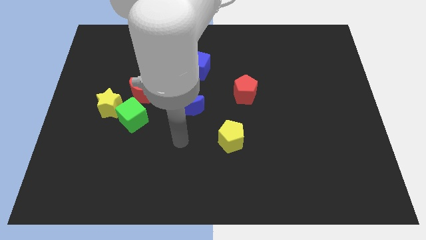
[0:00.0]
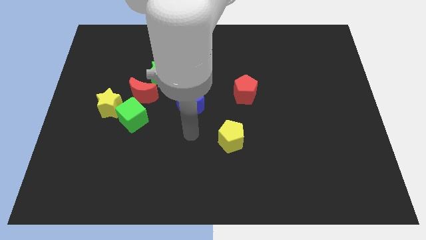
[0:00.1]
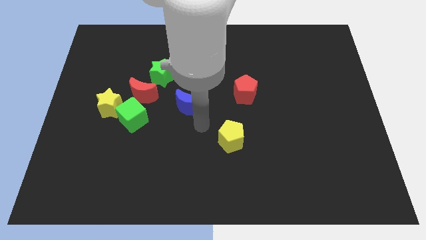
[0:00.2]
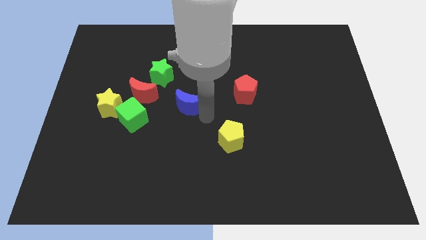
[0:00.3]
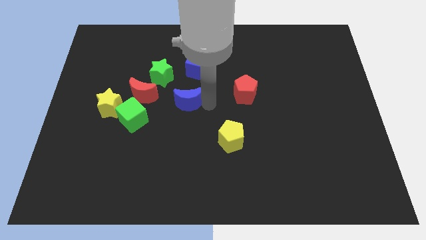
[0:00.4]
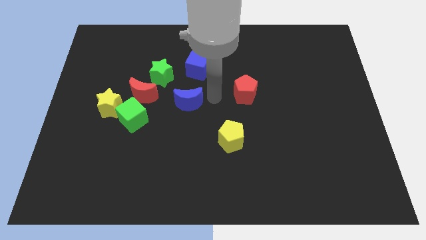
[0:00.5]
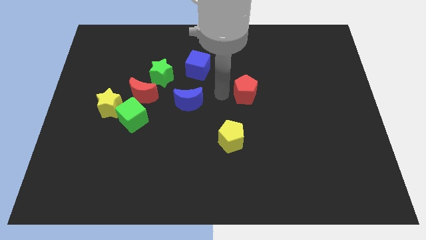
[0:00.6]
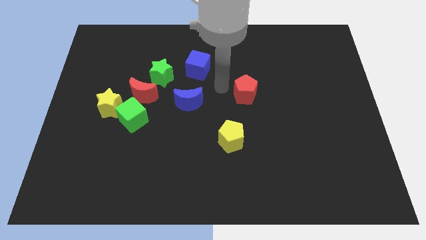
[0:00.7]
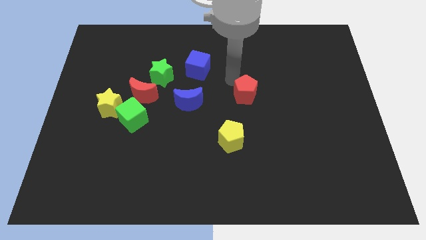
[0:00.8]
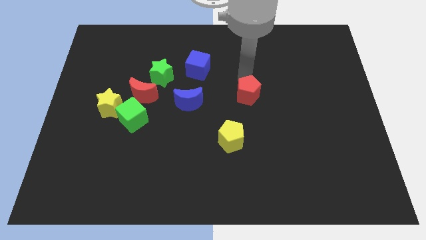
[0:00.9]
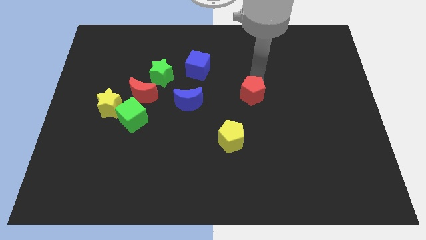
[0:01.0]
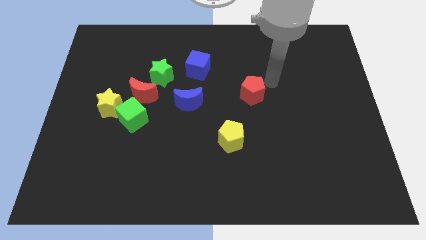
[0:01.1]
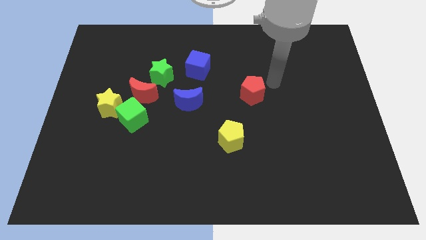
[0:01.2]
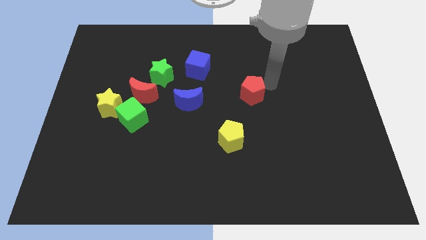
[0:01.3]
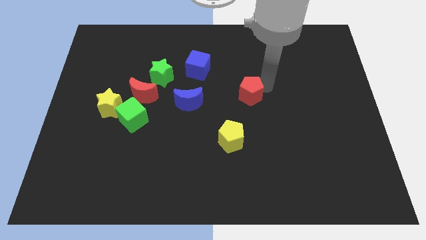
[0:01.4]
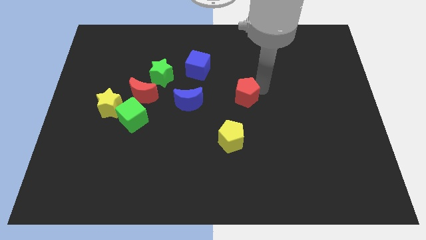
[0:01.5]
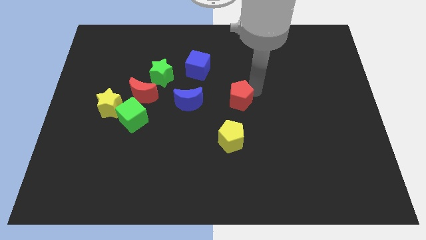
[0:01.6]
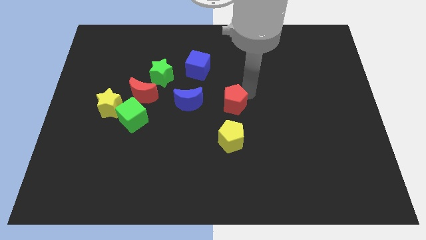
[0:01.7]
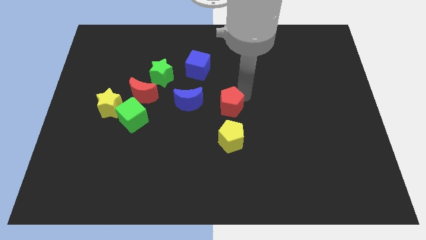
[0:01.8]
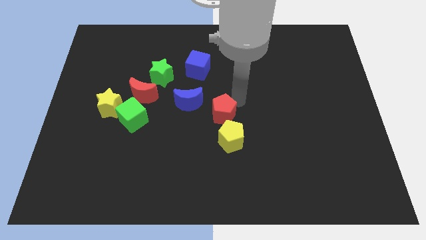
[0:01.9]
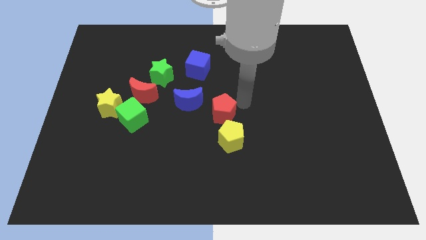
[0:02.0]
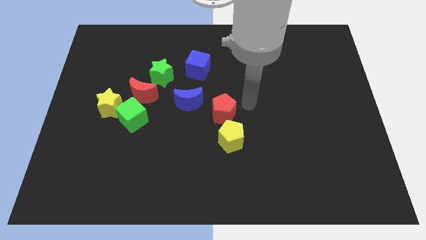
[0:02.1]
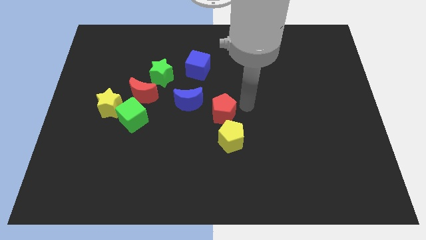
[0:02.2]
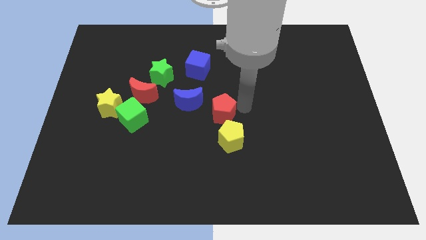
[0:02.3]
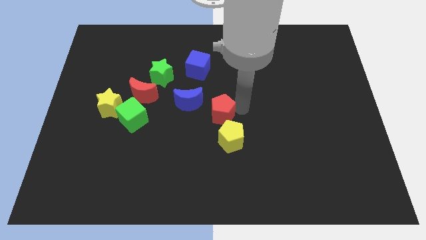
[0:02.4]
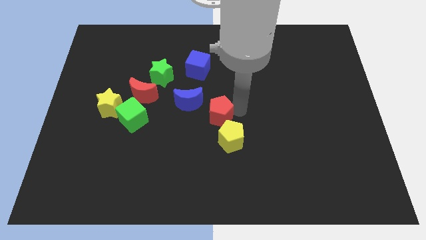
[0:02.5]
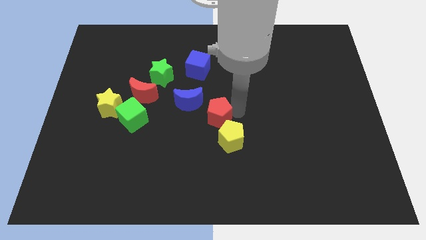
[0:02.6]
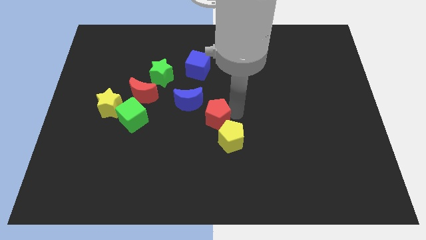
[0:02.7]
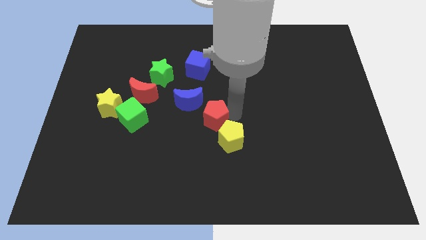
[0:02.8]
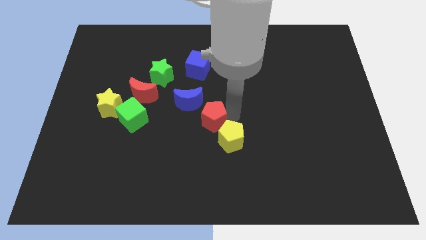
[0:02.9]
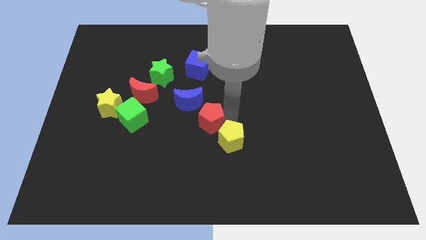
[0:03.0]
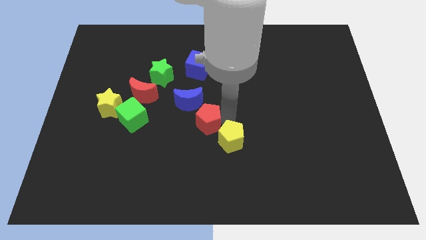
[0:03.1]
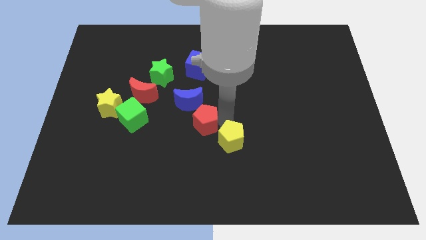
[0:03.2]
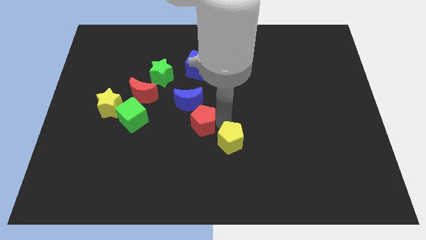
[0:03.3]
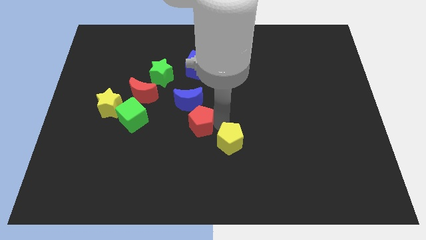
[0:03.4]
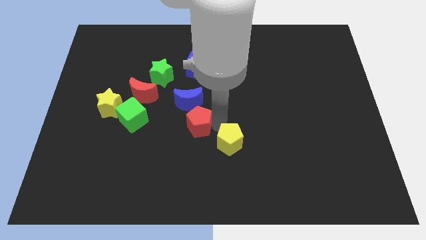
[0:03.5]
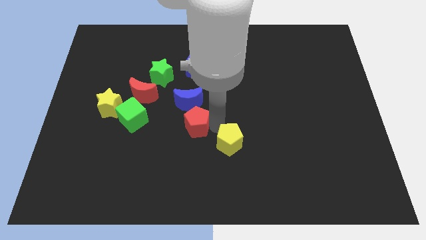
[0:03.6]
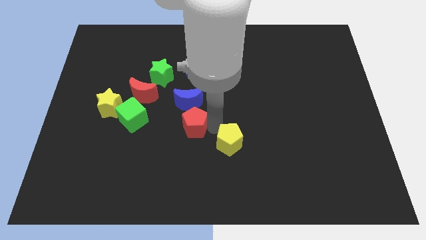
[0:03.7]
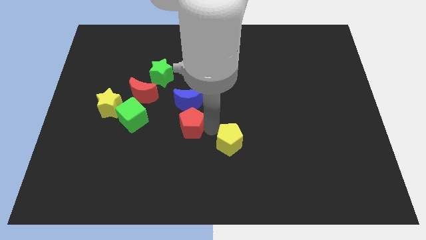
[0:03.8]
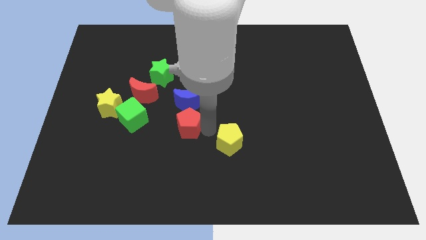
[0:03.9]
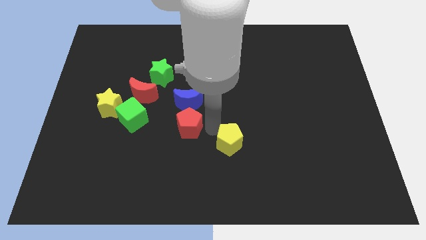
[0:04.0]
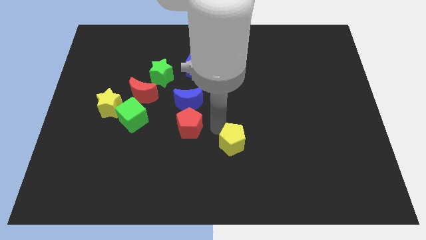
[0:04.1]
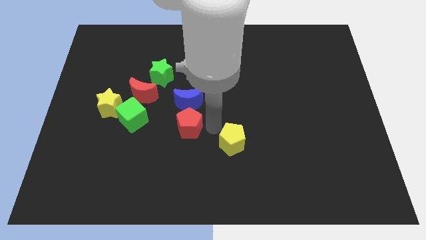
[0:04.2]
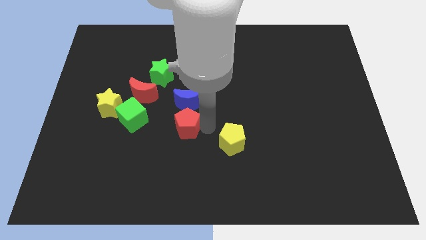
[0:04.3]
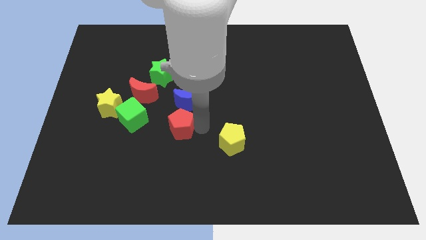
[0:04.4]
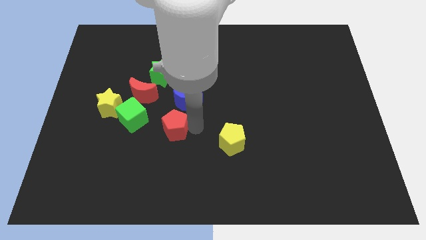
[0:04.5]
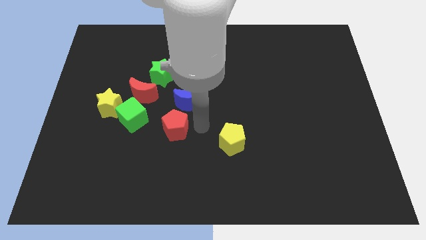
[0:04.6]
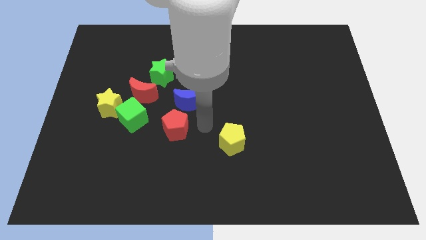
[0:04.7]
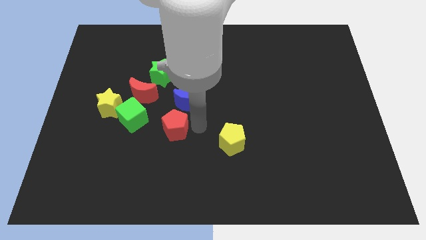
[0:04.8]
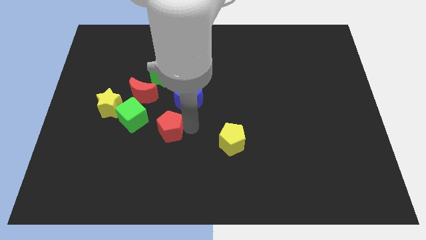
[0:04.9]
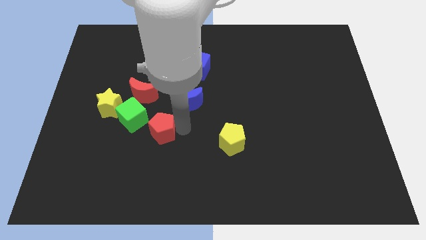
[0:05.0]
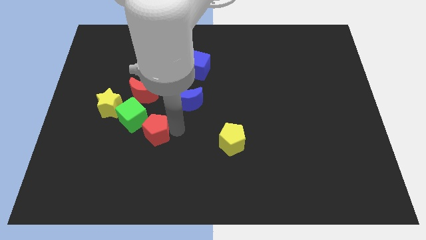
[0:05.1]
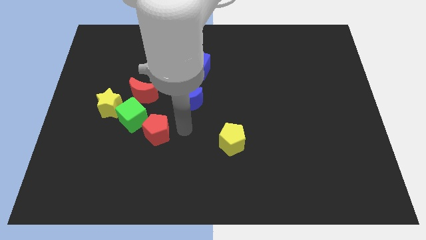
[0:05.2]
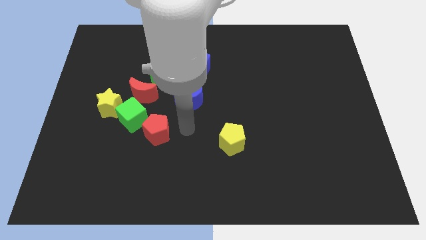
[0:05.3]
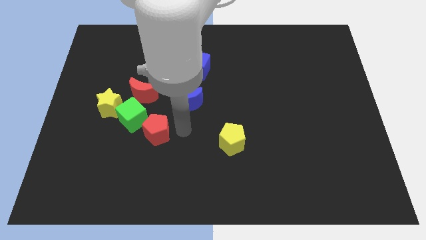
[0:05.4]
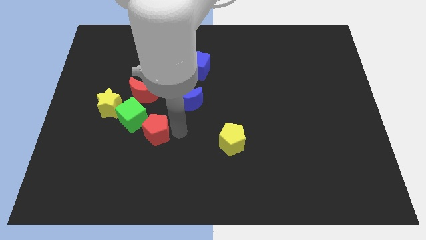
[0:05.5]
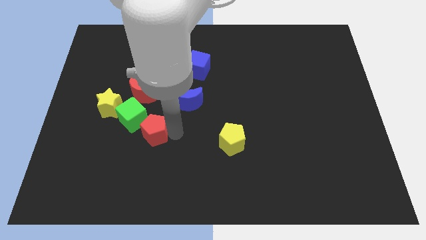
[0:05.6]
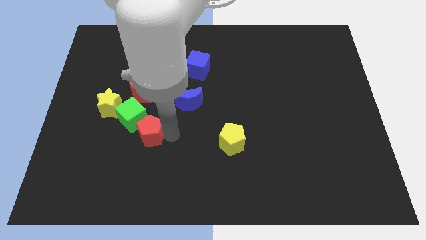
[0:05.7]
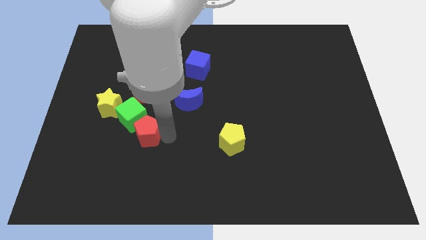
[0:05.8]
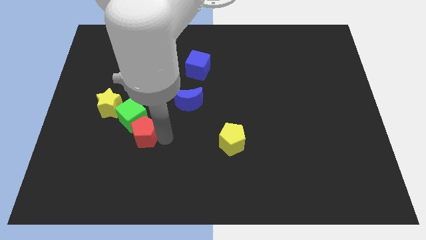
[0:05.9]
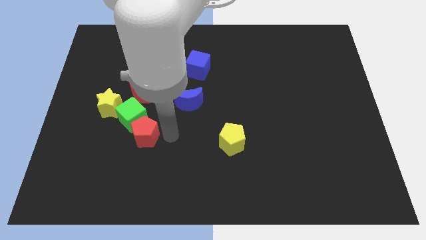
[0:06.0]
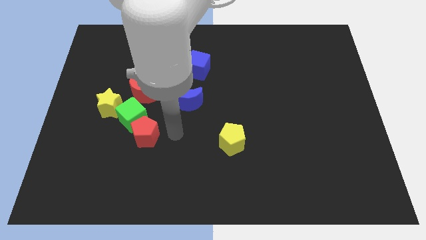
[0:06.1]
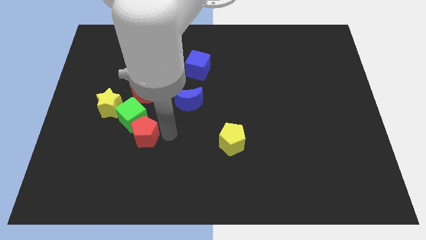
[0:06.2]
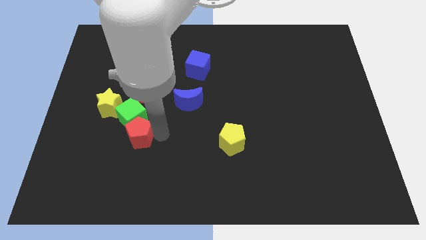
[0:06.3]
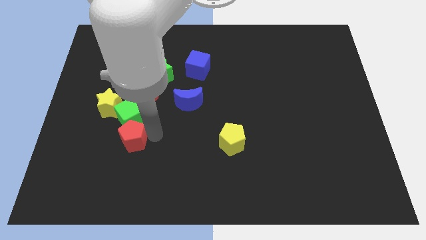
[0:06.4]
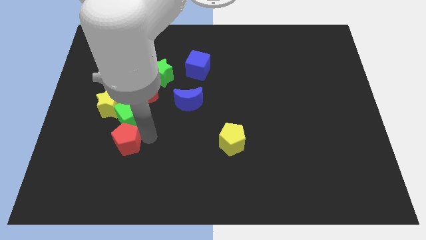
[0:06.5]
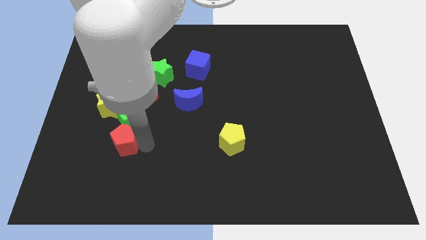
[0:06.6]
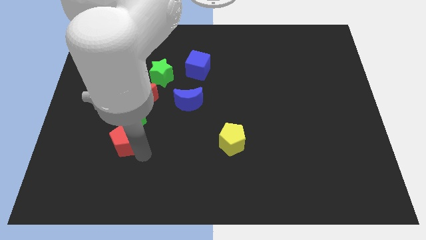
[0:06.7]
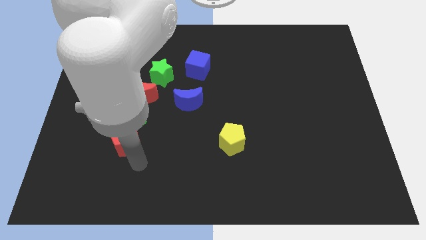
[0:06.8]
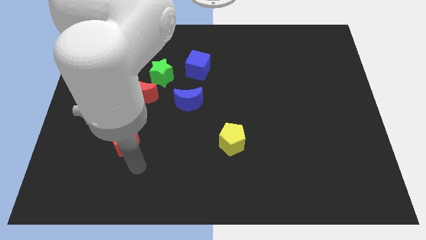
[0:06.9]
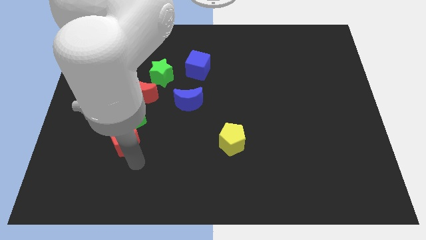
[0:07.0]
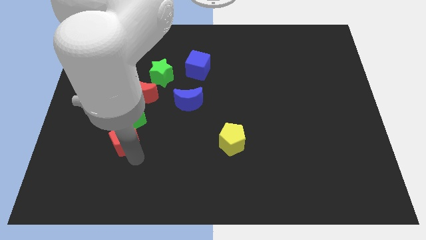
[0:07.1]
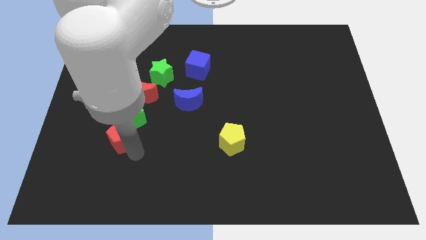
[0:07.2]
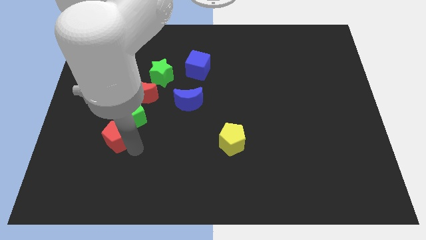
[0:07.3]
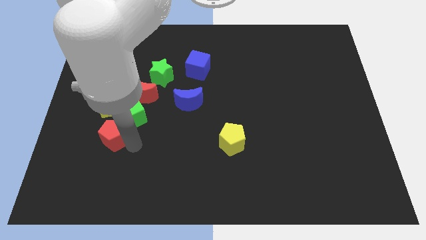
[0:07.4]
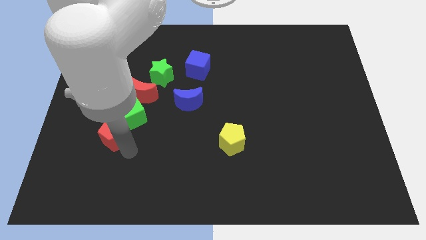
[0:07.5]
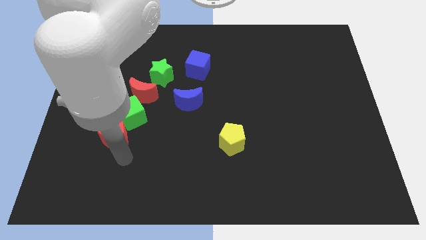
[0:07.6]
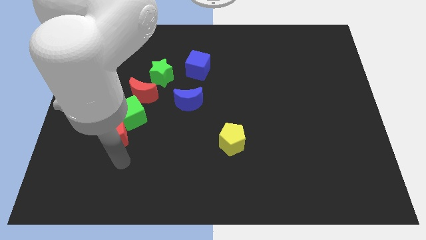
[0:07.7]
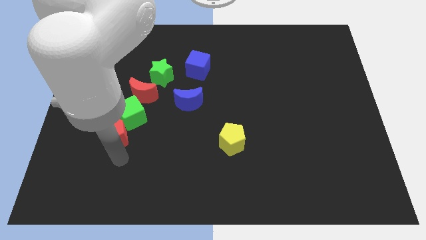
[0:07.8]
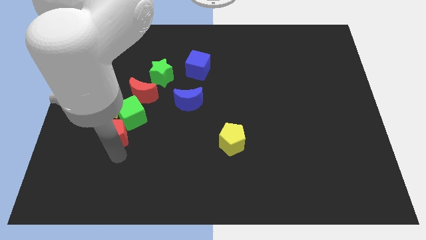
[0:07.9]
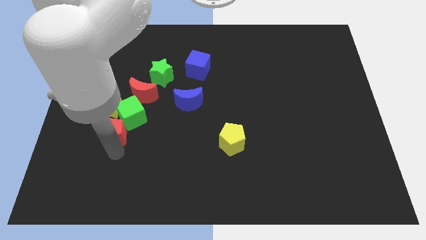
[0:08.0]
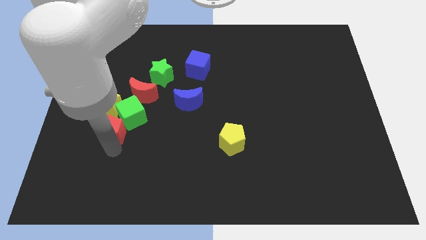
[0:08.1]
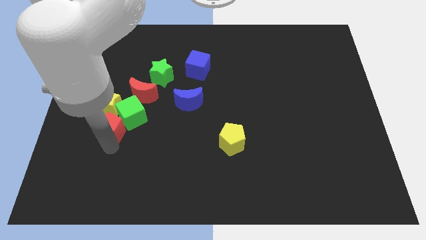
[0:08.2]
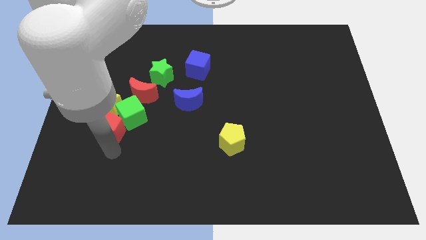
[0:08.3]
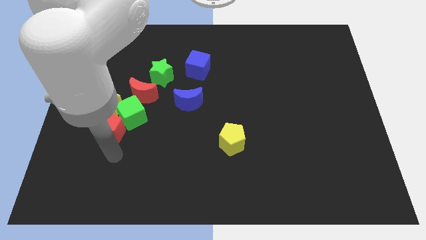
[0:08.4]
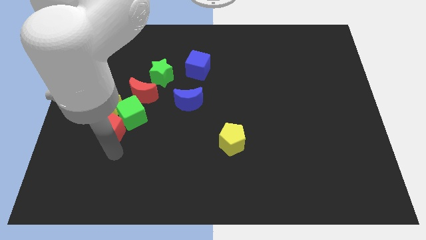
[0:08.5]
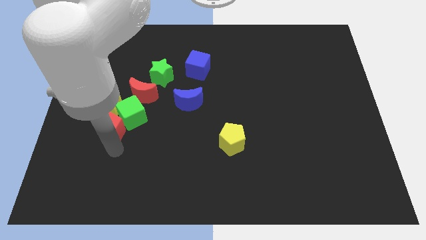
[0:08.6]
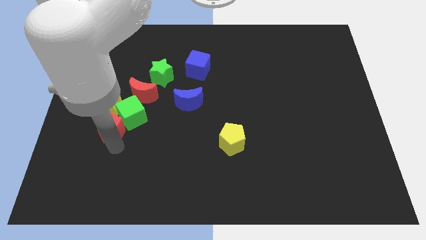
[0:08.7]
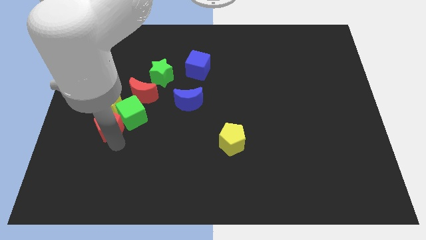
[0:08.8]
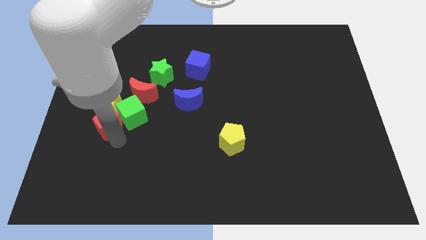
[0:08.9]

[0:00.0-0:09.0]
push the red pentagon to the yellow star
